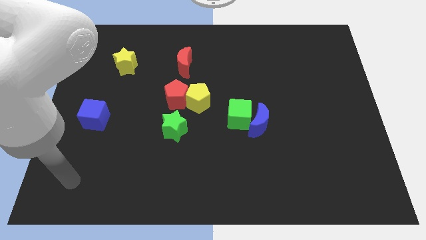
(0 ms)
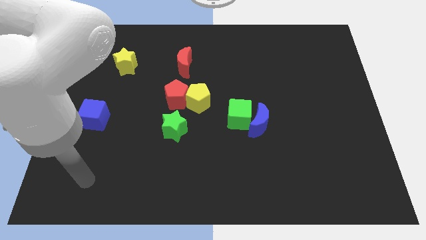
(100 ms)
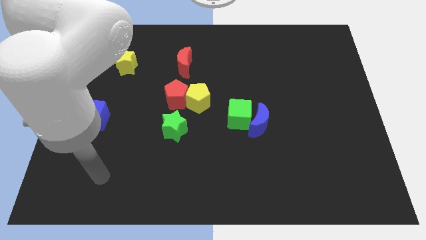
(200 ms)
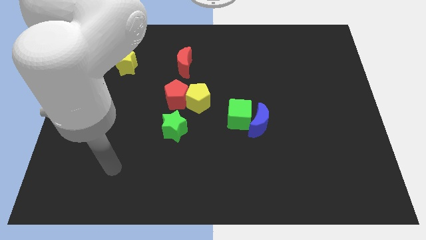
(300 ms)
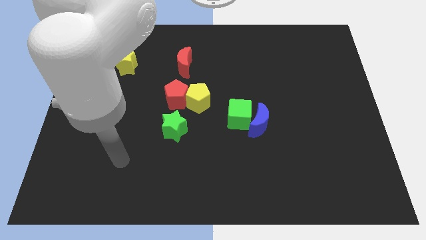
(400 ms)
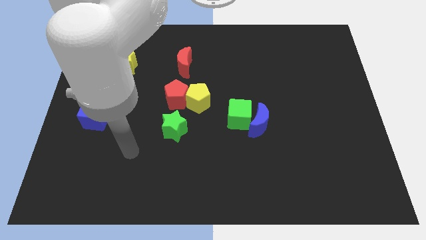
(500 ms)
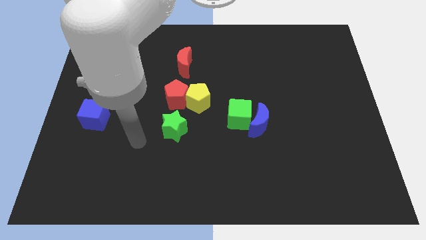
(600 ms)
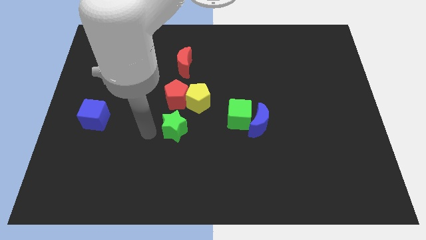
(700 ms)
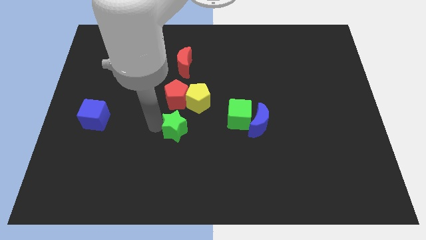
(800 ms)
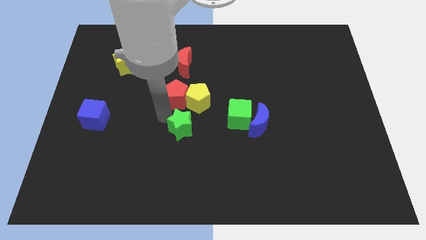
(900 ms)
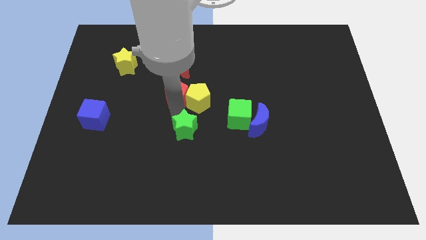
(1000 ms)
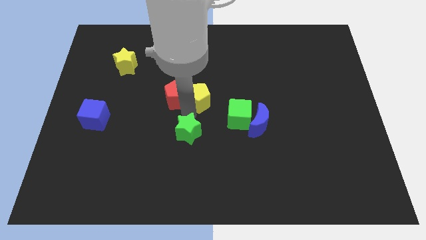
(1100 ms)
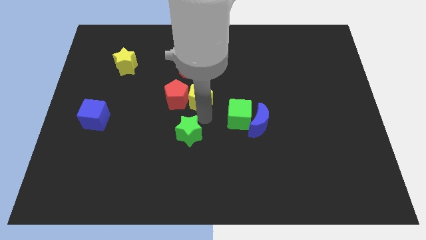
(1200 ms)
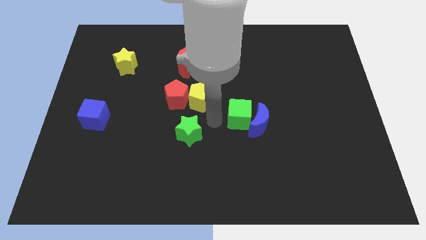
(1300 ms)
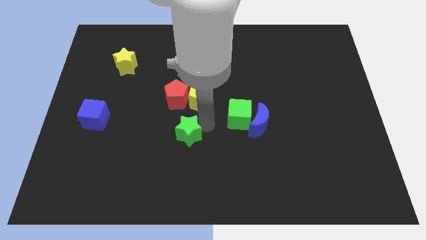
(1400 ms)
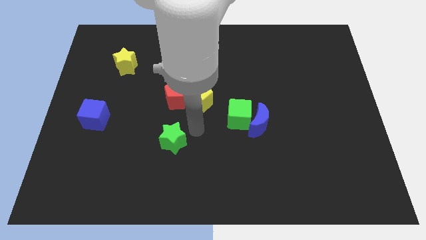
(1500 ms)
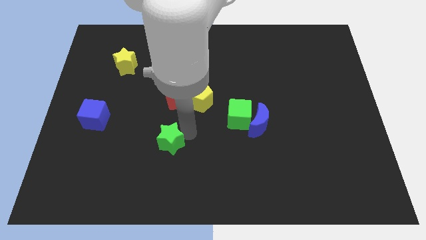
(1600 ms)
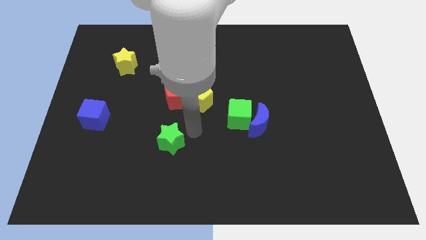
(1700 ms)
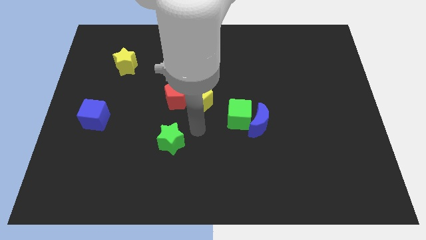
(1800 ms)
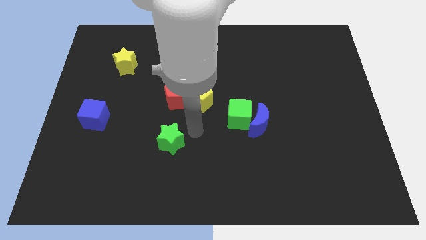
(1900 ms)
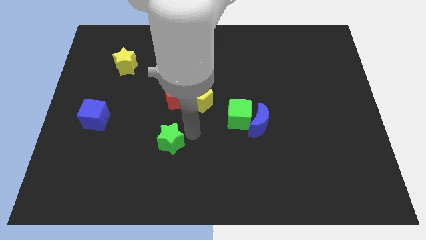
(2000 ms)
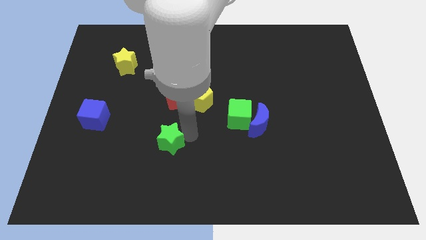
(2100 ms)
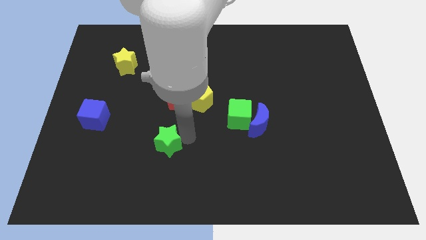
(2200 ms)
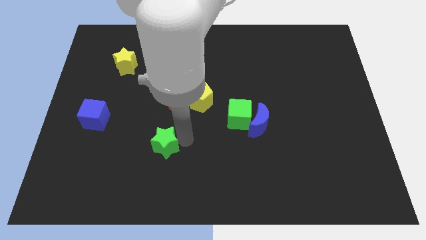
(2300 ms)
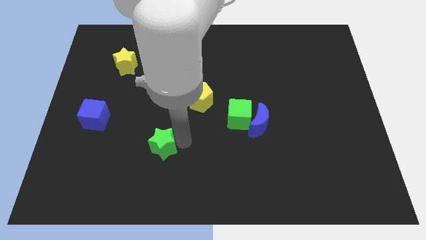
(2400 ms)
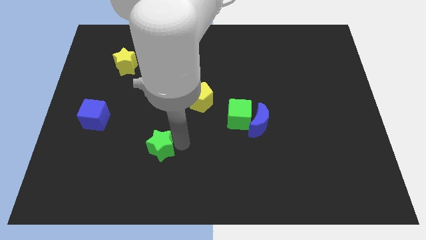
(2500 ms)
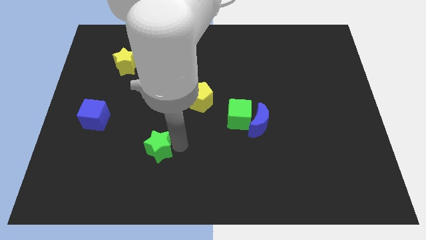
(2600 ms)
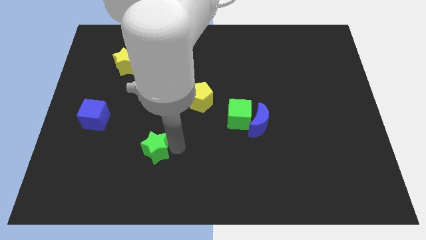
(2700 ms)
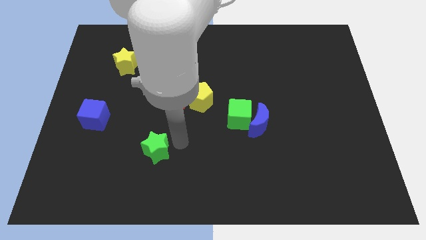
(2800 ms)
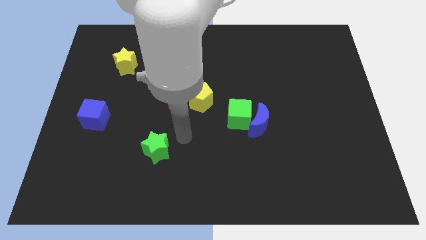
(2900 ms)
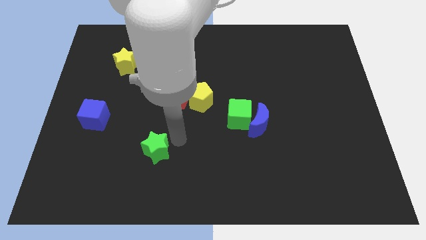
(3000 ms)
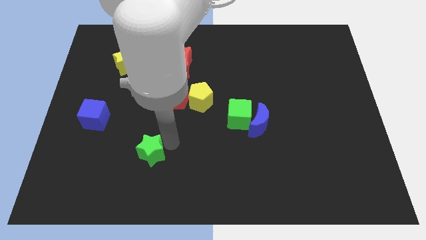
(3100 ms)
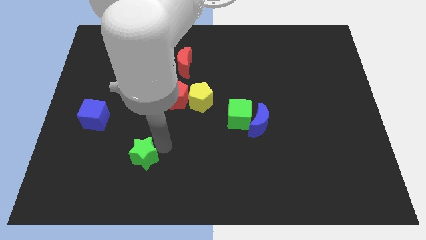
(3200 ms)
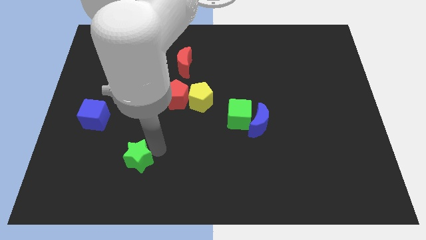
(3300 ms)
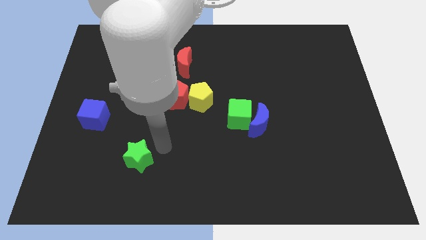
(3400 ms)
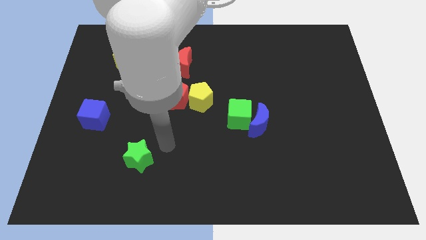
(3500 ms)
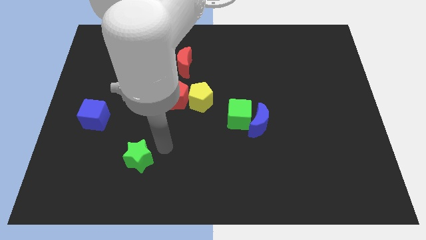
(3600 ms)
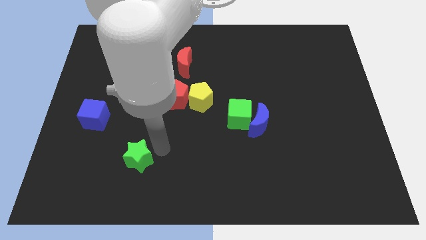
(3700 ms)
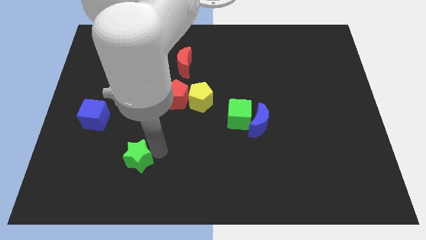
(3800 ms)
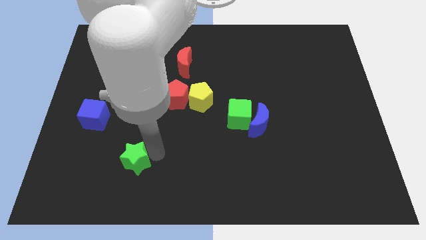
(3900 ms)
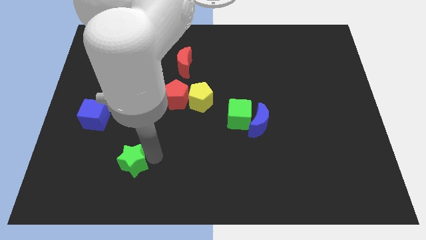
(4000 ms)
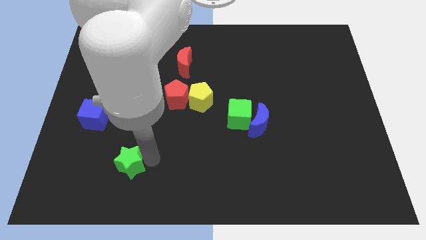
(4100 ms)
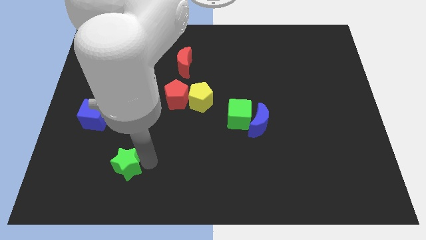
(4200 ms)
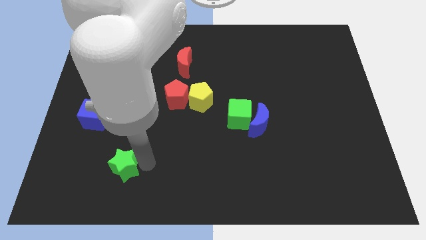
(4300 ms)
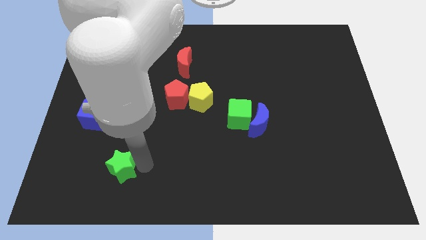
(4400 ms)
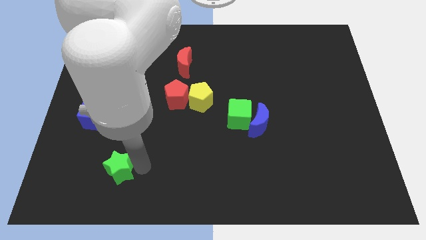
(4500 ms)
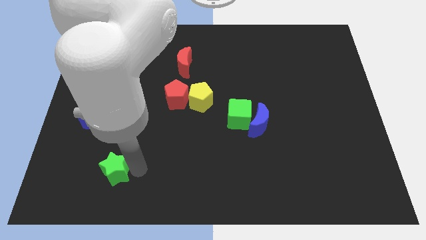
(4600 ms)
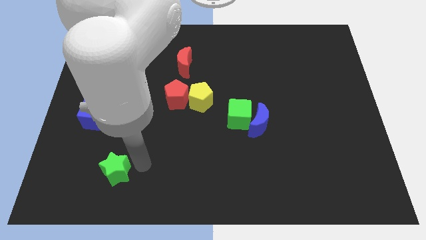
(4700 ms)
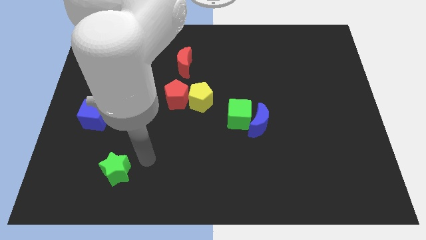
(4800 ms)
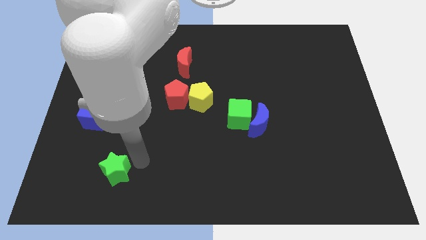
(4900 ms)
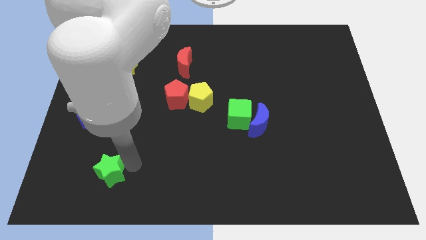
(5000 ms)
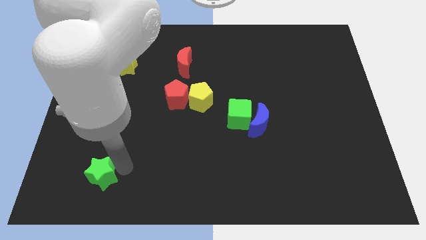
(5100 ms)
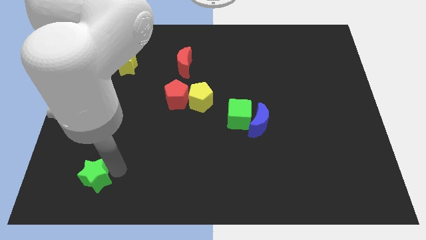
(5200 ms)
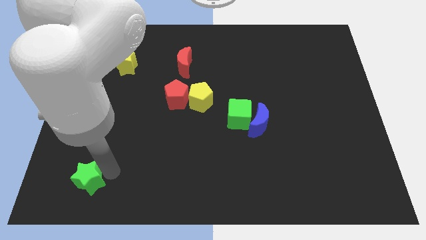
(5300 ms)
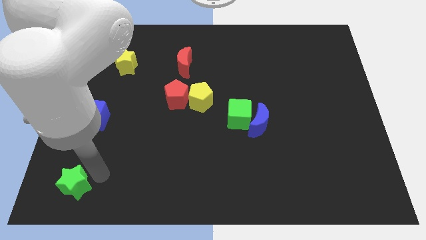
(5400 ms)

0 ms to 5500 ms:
put the green star to the bottom left of the board

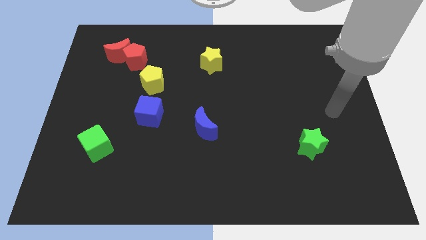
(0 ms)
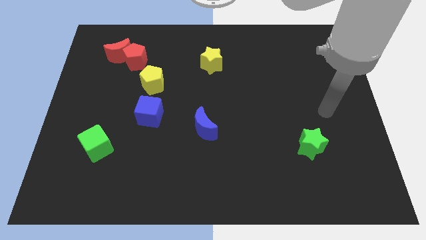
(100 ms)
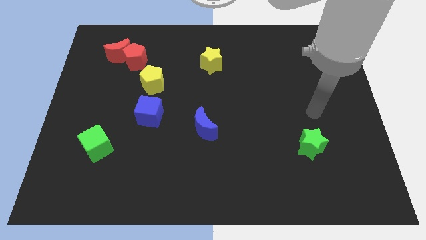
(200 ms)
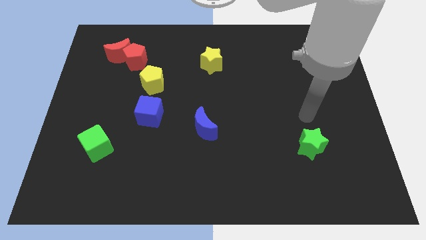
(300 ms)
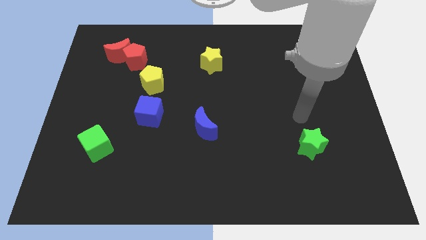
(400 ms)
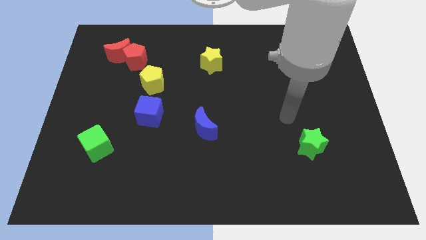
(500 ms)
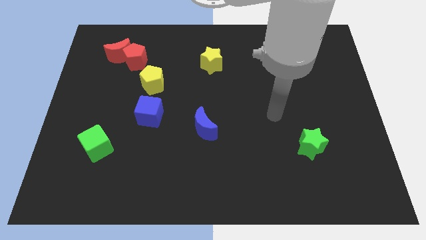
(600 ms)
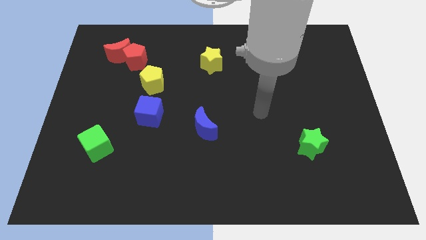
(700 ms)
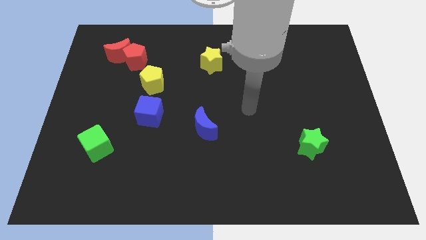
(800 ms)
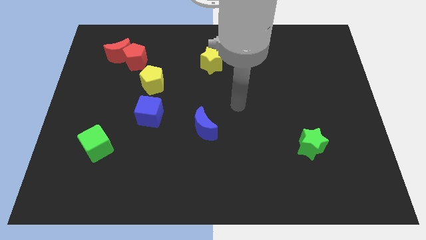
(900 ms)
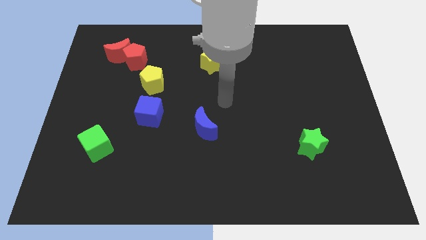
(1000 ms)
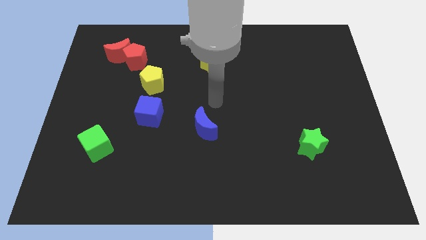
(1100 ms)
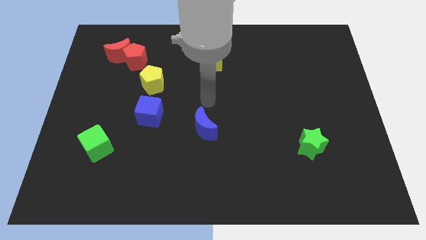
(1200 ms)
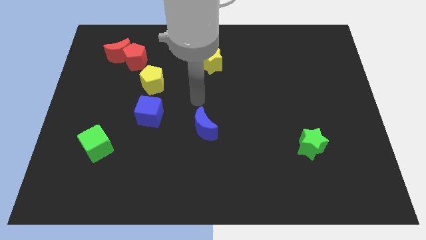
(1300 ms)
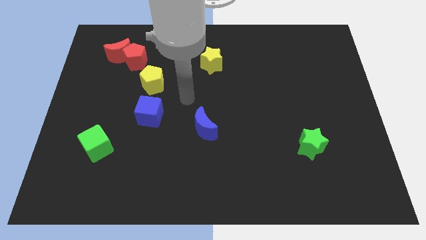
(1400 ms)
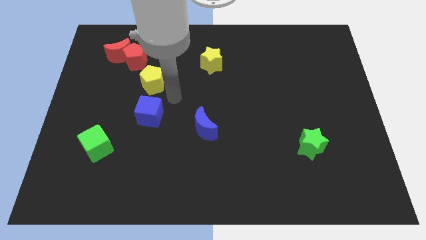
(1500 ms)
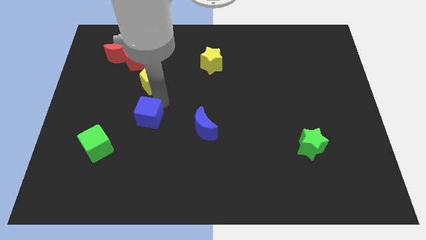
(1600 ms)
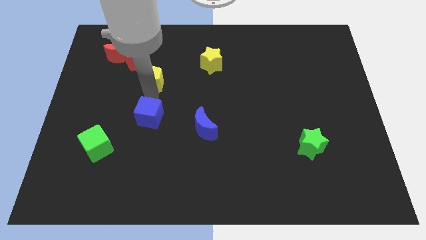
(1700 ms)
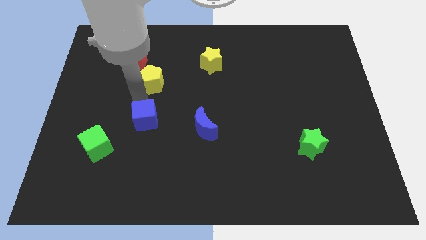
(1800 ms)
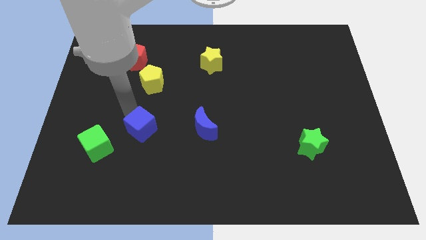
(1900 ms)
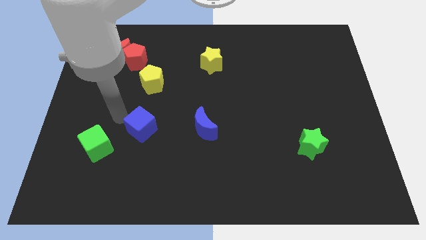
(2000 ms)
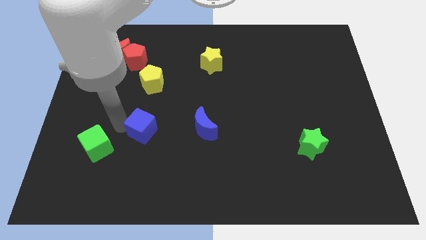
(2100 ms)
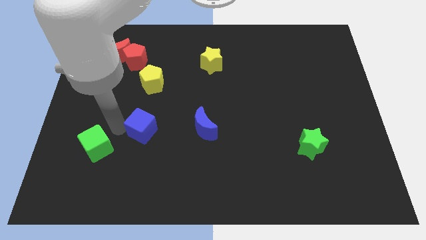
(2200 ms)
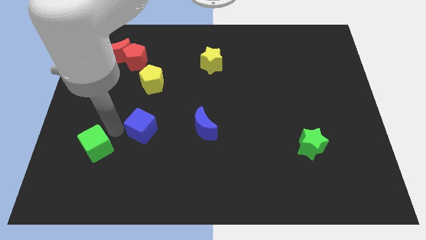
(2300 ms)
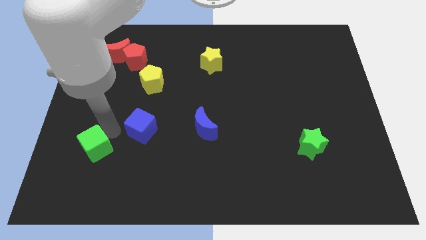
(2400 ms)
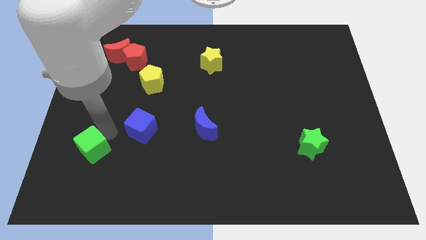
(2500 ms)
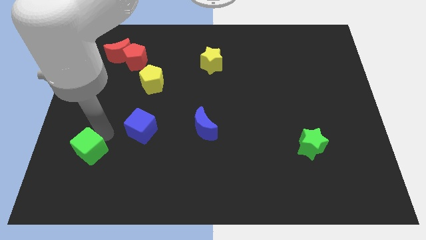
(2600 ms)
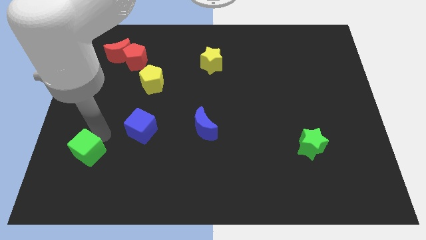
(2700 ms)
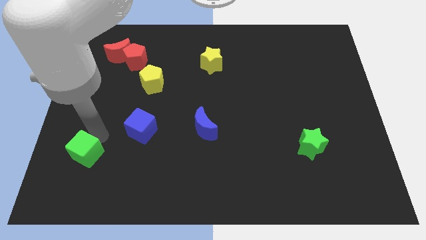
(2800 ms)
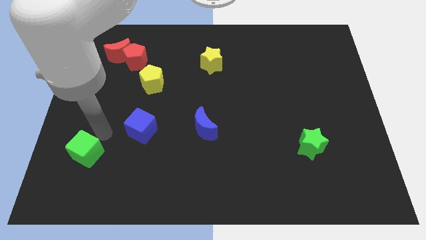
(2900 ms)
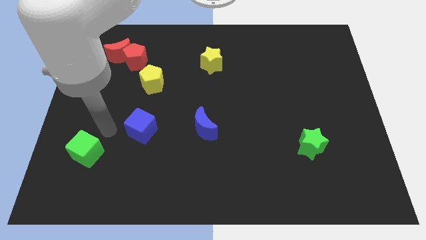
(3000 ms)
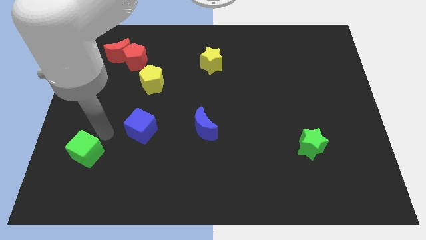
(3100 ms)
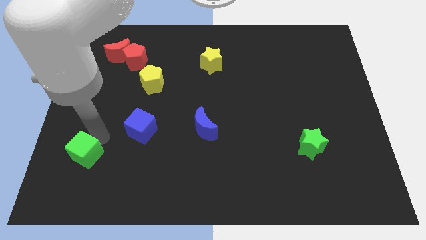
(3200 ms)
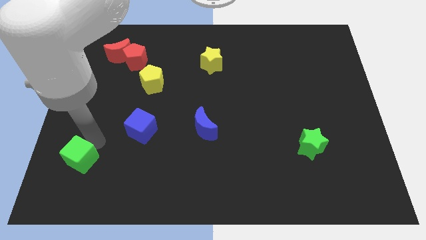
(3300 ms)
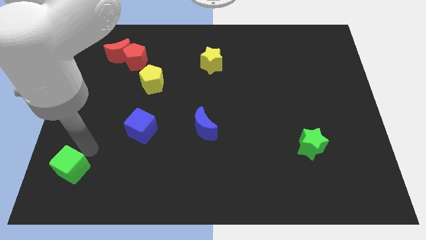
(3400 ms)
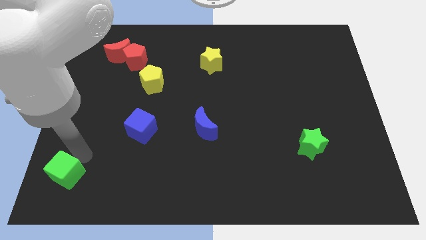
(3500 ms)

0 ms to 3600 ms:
push the green cube to the lower left corner
